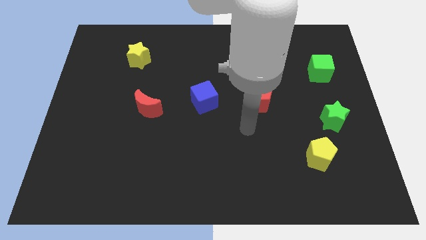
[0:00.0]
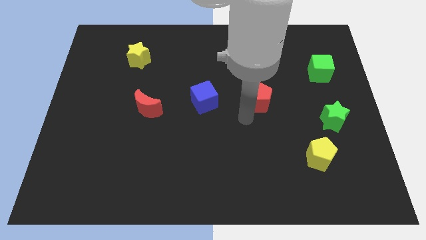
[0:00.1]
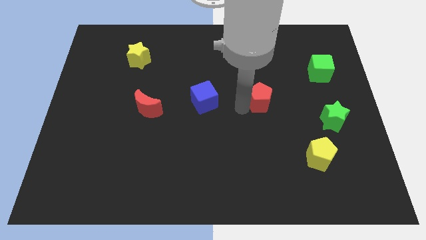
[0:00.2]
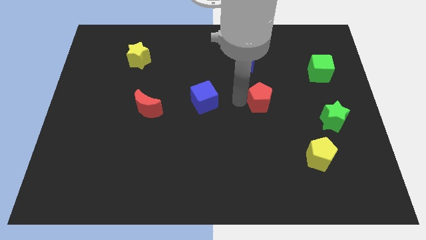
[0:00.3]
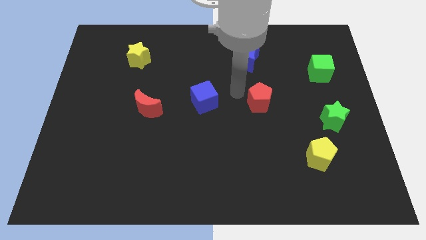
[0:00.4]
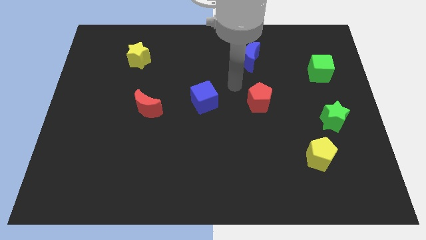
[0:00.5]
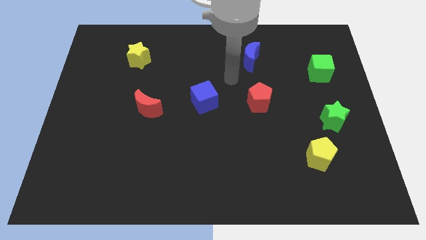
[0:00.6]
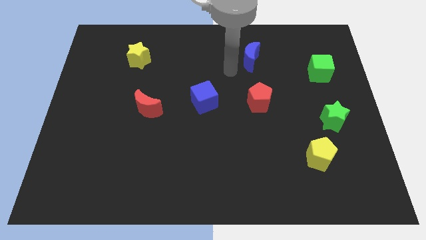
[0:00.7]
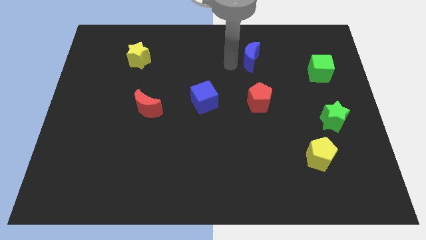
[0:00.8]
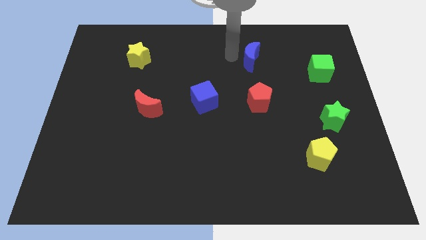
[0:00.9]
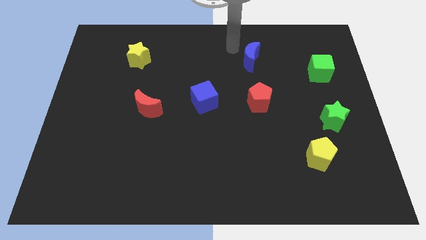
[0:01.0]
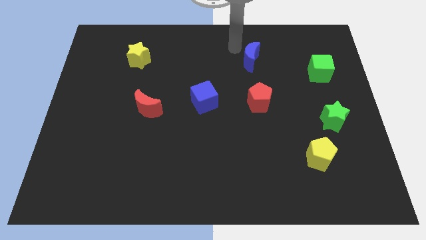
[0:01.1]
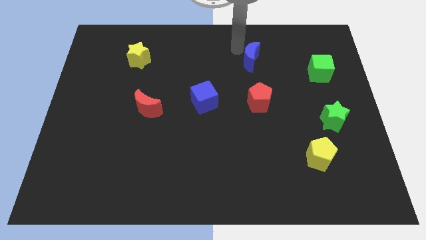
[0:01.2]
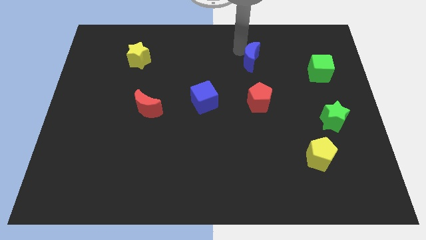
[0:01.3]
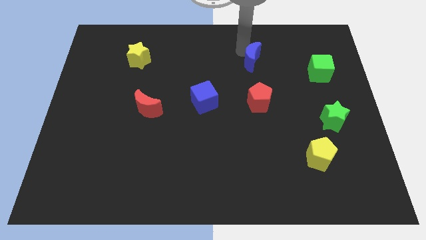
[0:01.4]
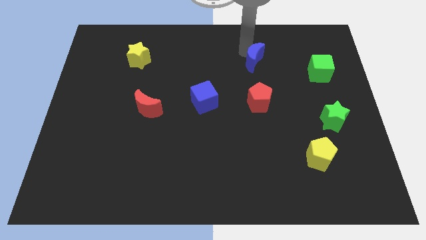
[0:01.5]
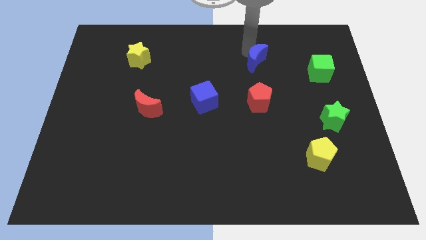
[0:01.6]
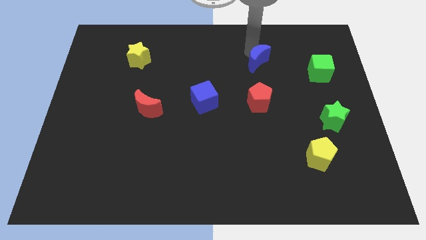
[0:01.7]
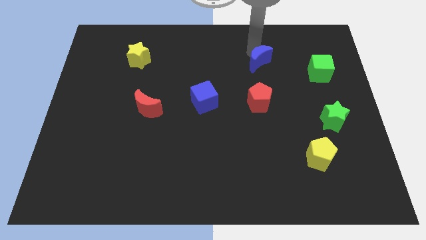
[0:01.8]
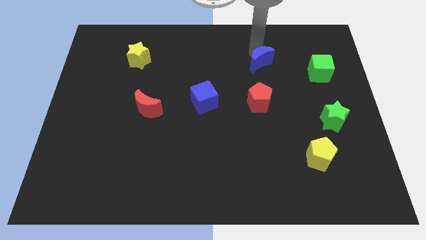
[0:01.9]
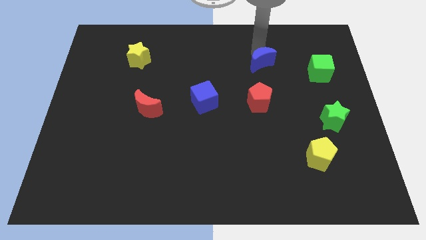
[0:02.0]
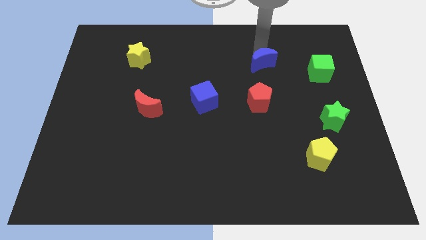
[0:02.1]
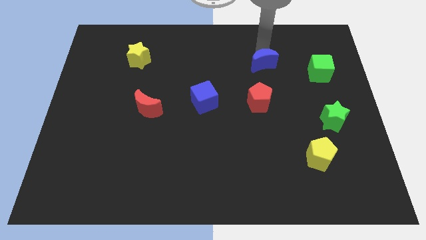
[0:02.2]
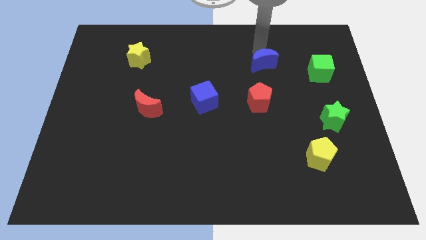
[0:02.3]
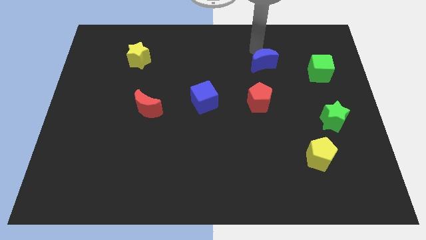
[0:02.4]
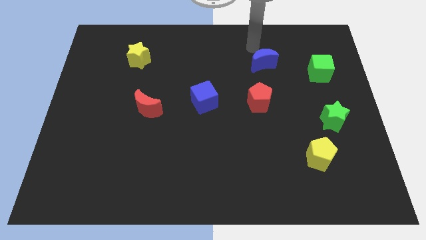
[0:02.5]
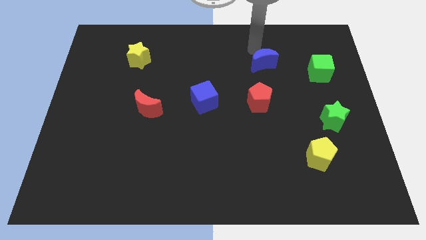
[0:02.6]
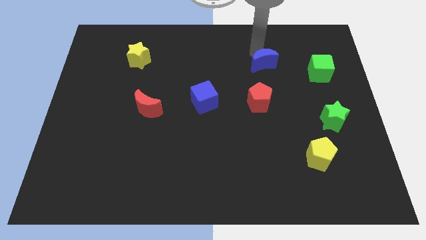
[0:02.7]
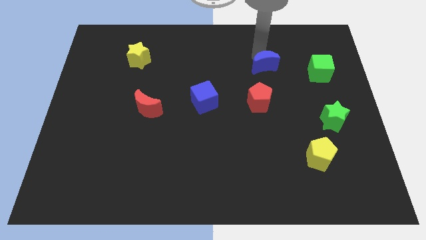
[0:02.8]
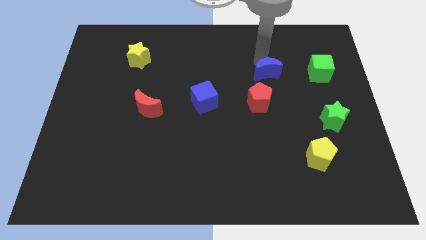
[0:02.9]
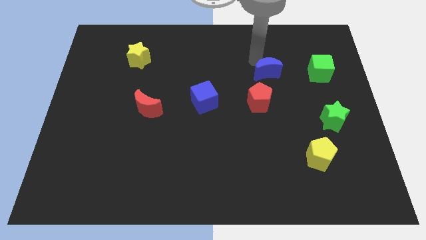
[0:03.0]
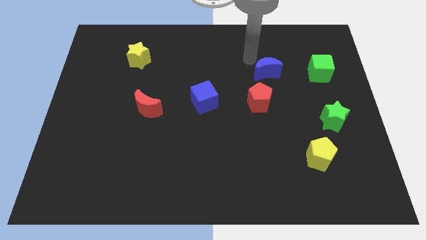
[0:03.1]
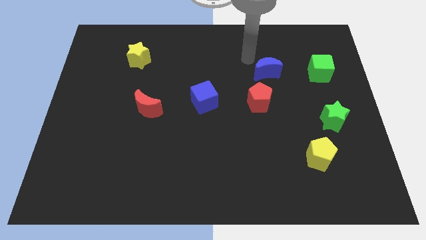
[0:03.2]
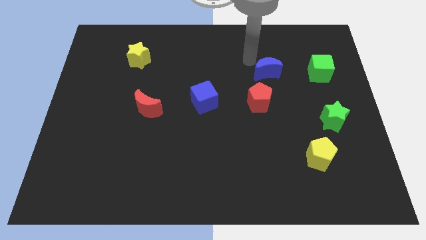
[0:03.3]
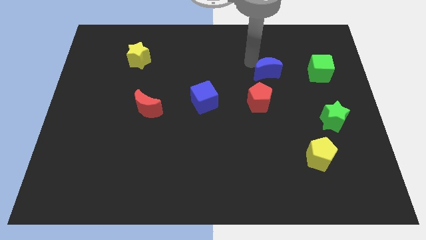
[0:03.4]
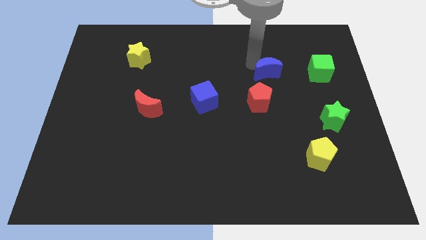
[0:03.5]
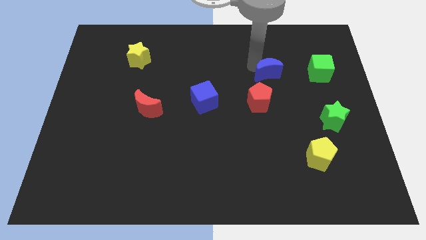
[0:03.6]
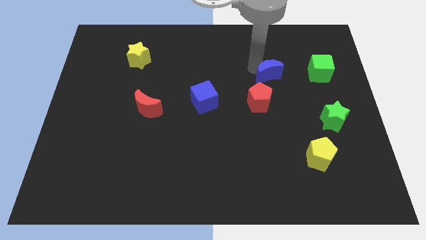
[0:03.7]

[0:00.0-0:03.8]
slightly move the blue moon diagonally downwards and to the right

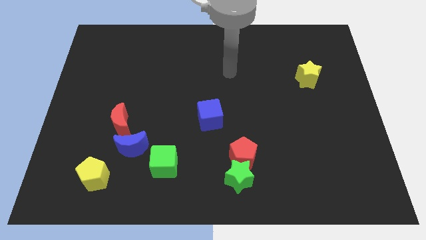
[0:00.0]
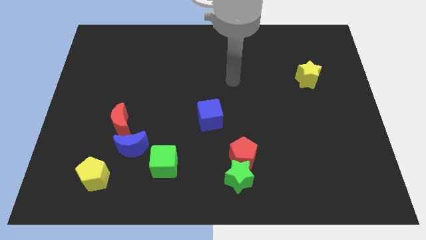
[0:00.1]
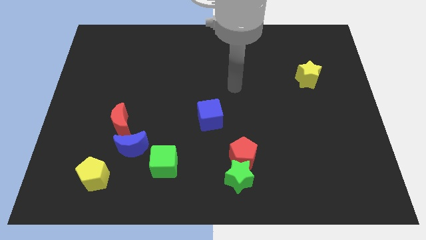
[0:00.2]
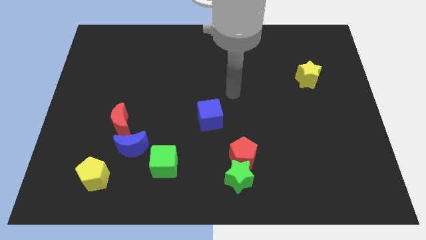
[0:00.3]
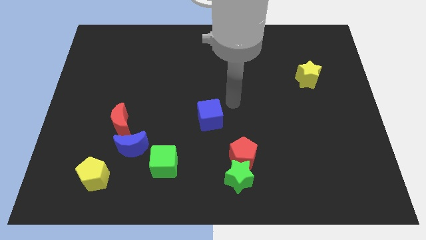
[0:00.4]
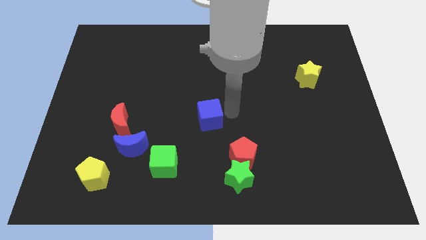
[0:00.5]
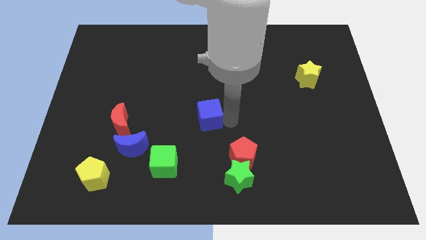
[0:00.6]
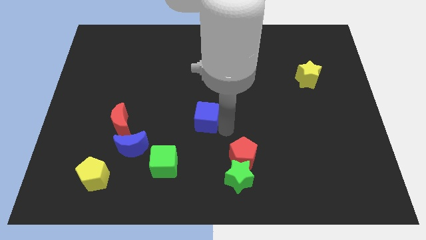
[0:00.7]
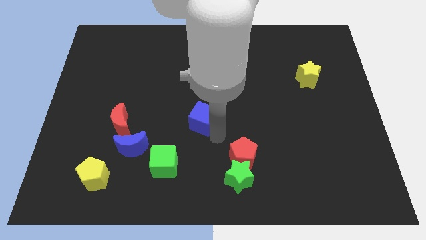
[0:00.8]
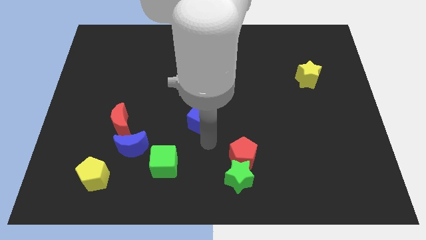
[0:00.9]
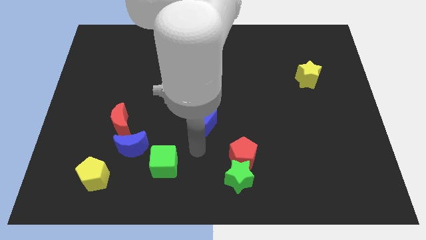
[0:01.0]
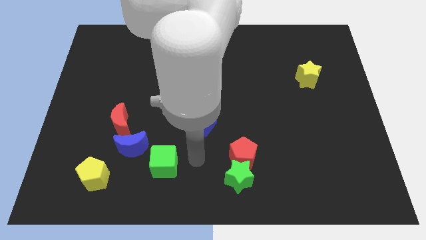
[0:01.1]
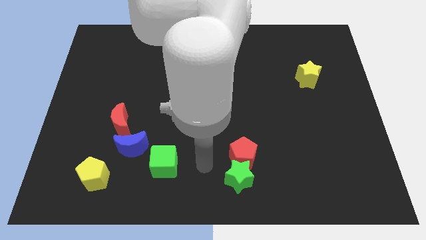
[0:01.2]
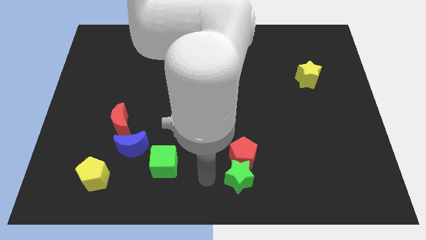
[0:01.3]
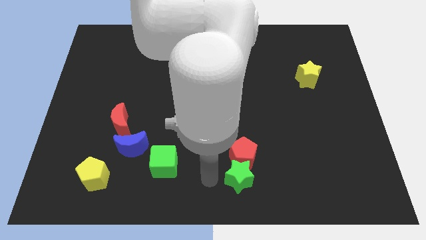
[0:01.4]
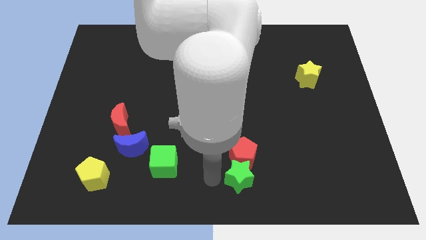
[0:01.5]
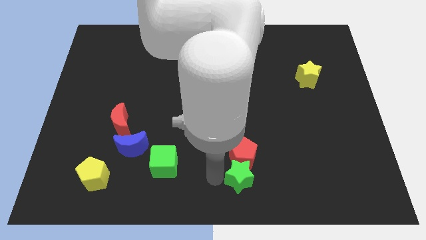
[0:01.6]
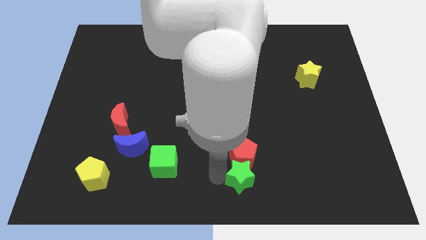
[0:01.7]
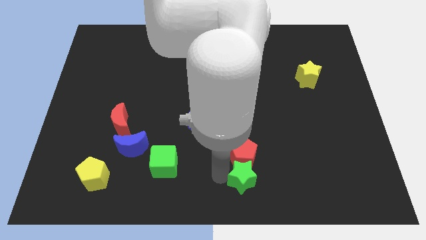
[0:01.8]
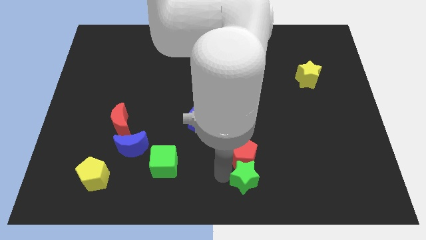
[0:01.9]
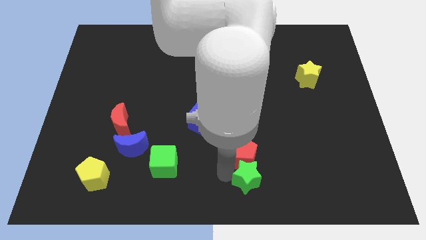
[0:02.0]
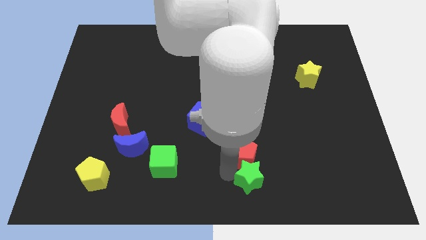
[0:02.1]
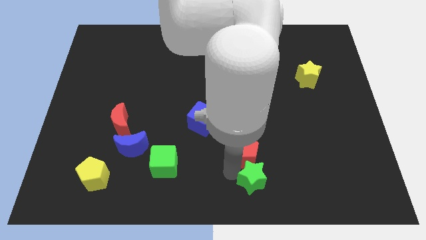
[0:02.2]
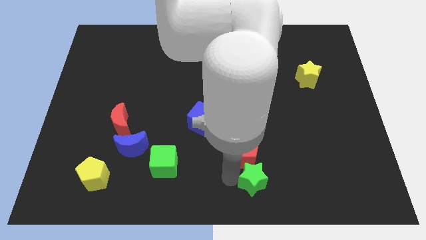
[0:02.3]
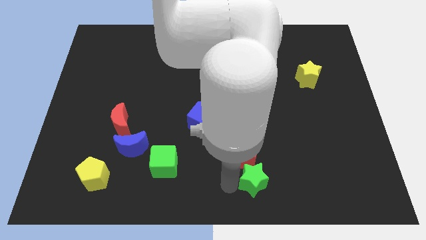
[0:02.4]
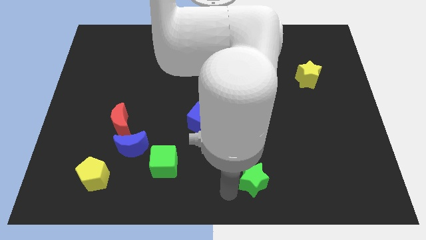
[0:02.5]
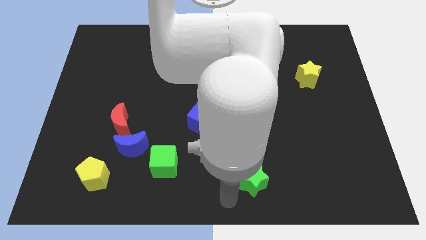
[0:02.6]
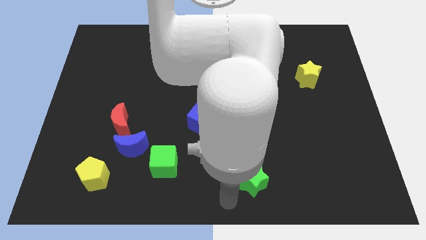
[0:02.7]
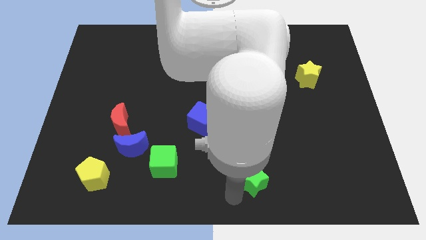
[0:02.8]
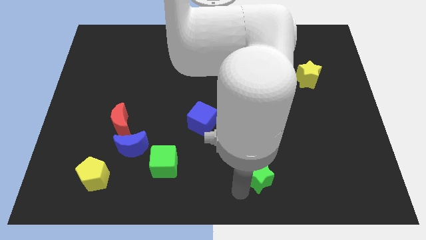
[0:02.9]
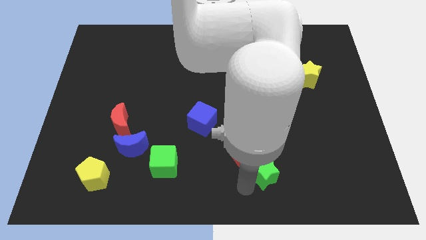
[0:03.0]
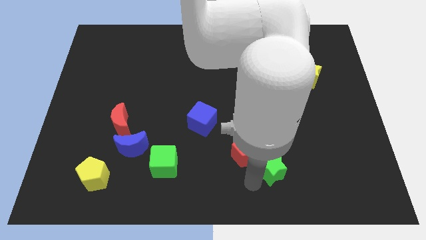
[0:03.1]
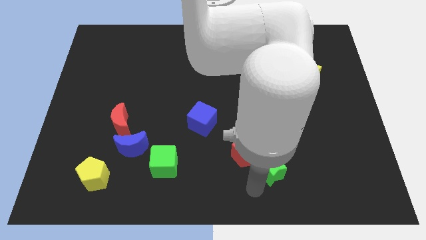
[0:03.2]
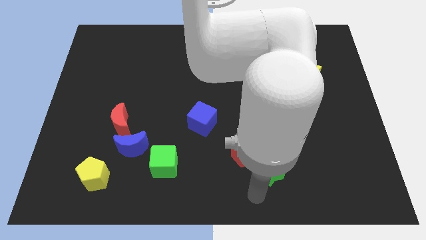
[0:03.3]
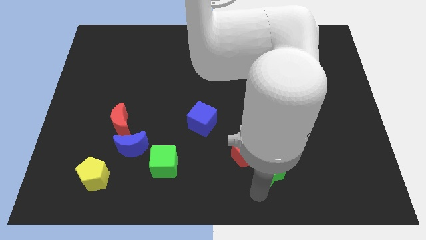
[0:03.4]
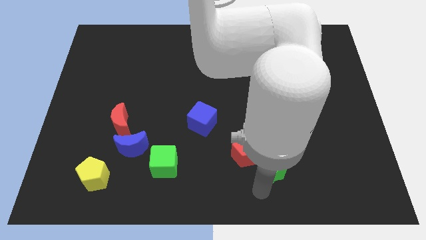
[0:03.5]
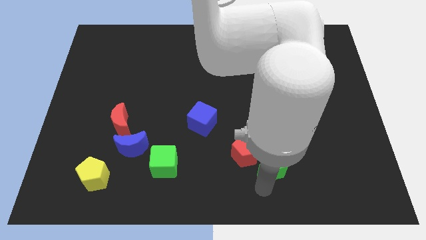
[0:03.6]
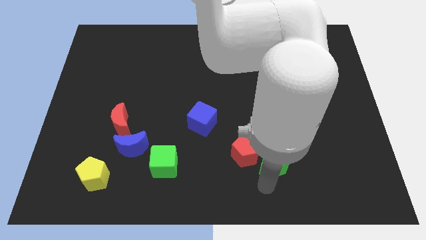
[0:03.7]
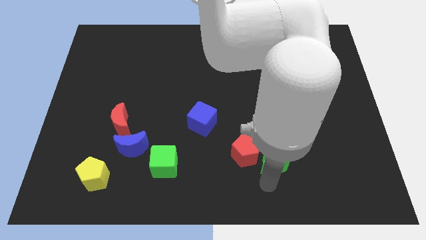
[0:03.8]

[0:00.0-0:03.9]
move the green star slightly diagonally upwards and to the right
